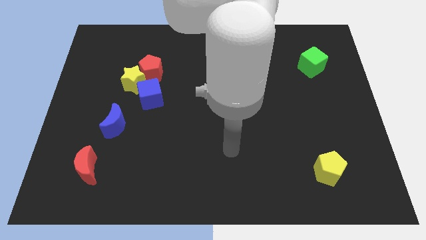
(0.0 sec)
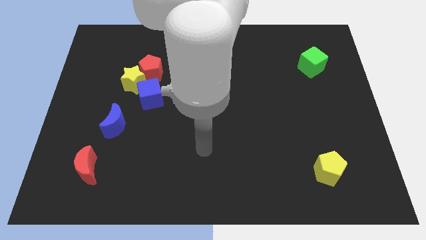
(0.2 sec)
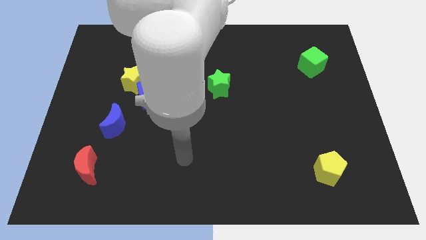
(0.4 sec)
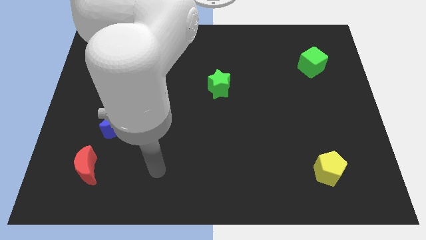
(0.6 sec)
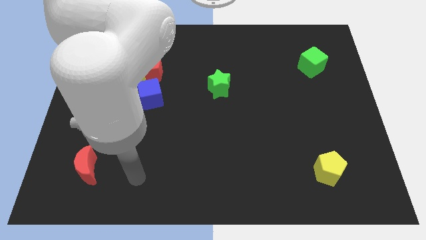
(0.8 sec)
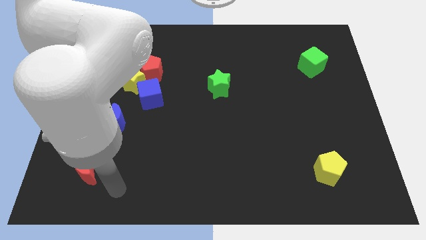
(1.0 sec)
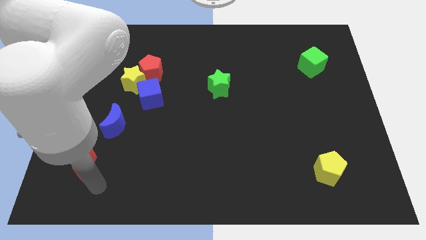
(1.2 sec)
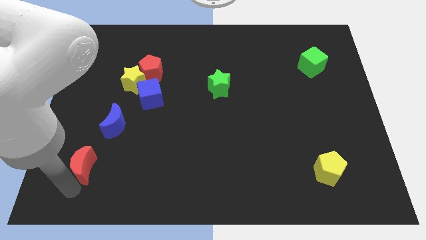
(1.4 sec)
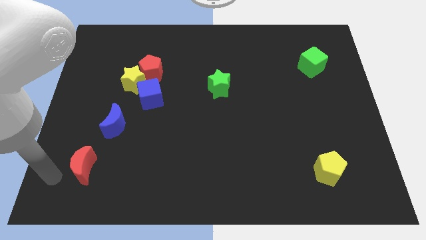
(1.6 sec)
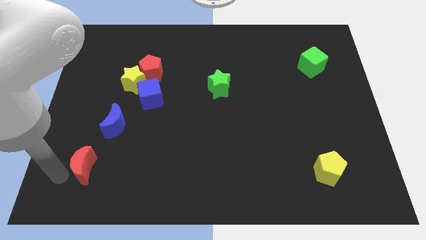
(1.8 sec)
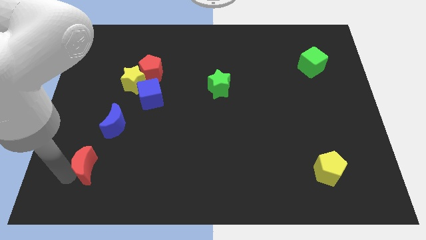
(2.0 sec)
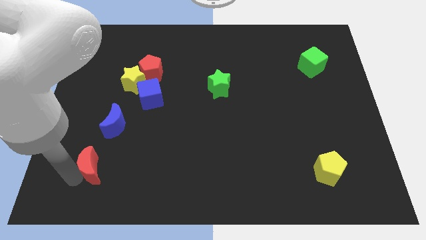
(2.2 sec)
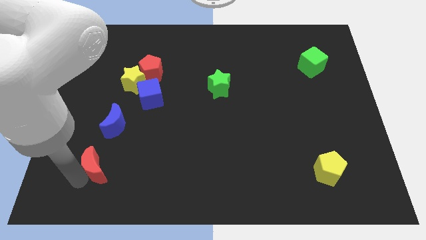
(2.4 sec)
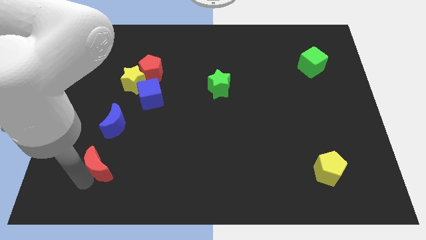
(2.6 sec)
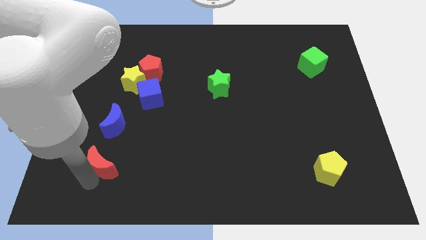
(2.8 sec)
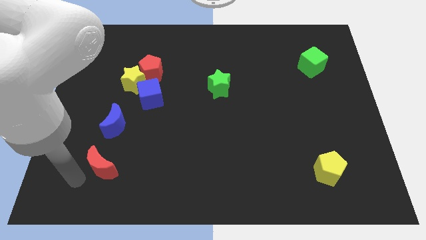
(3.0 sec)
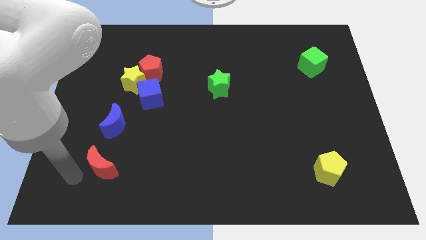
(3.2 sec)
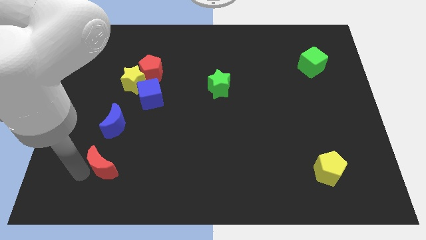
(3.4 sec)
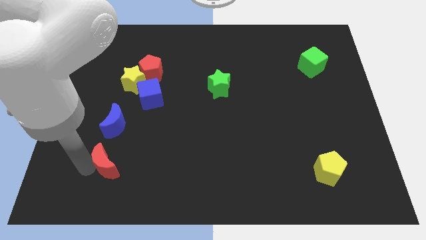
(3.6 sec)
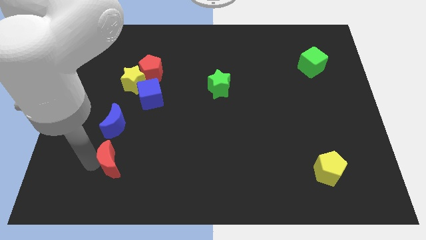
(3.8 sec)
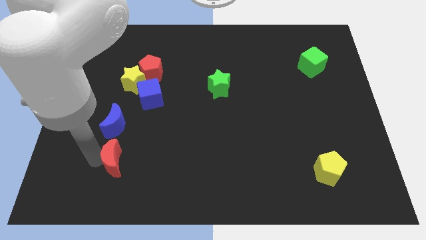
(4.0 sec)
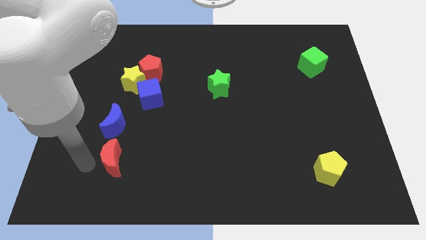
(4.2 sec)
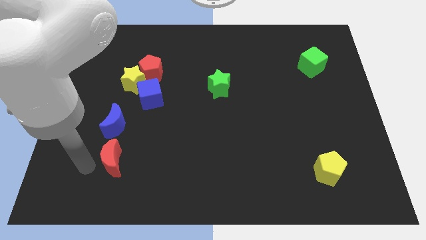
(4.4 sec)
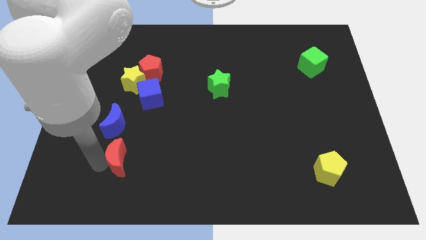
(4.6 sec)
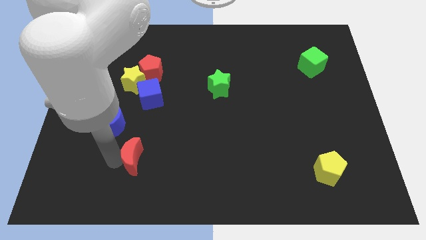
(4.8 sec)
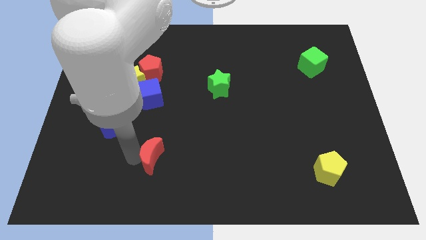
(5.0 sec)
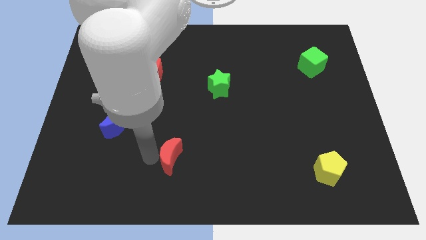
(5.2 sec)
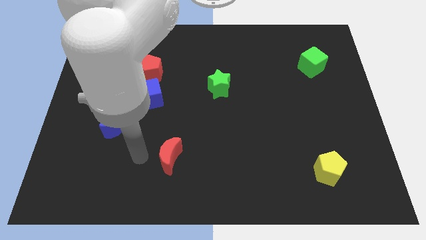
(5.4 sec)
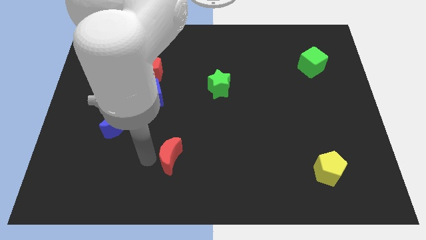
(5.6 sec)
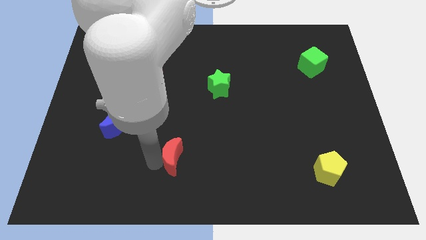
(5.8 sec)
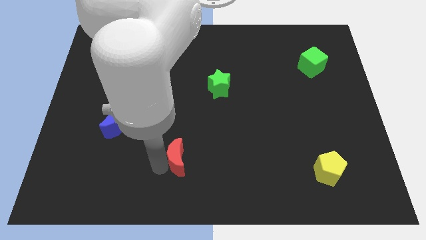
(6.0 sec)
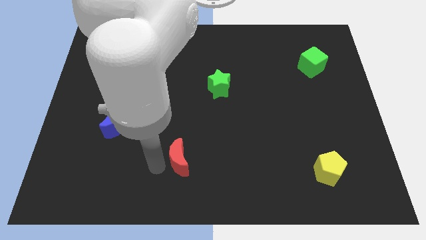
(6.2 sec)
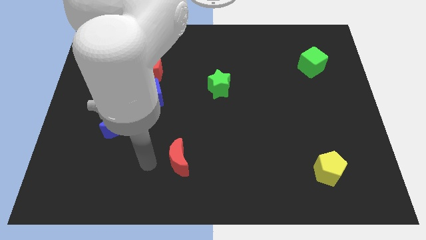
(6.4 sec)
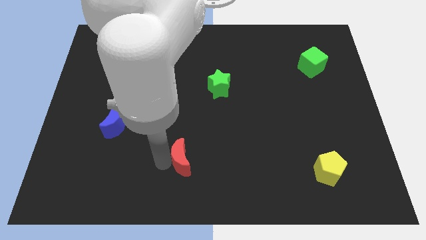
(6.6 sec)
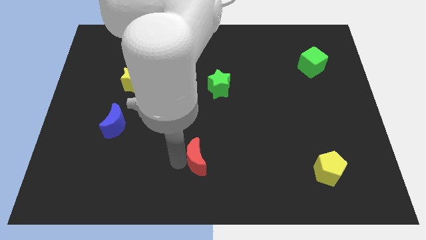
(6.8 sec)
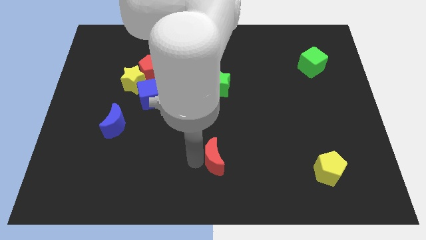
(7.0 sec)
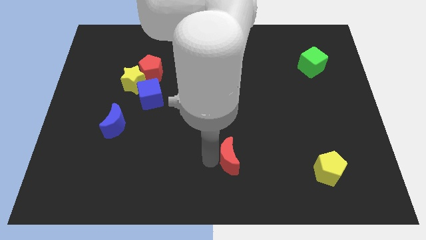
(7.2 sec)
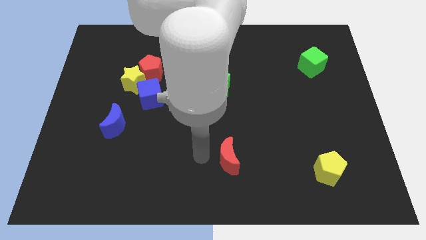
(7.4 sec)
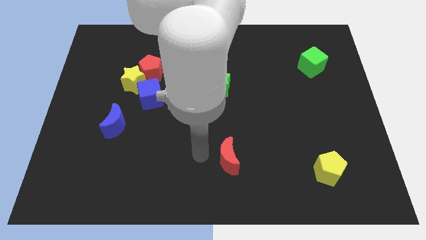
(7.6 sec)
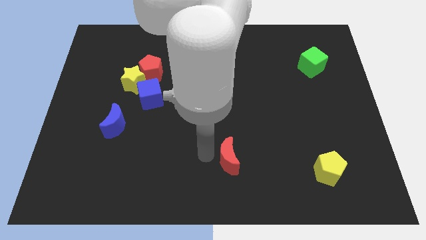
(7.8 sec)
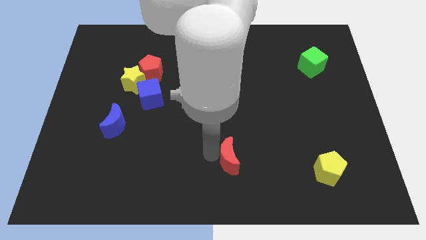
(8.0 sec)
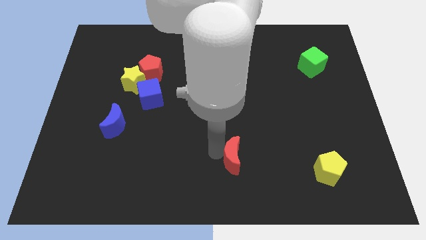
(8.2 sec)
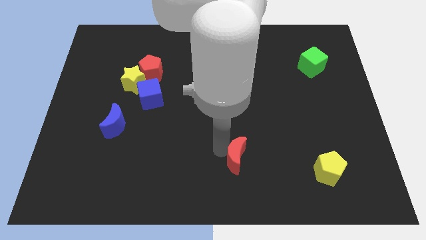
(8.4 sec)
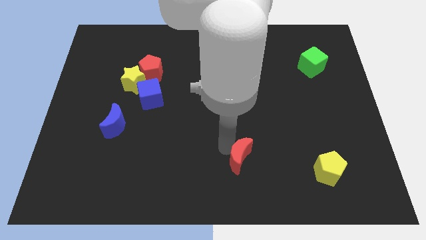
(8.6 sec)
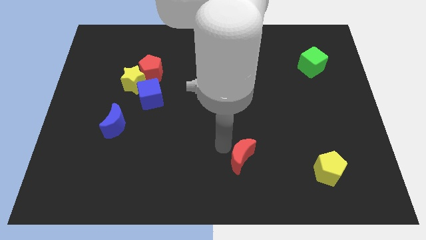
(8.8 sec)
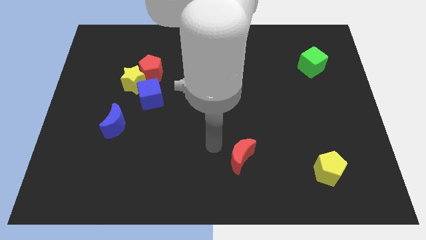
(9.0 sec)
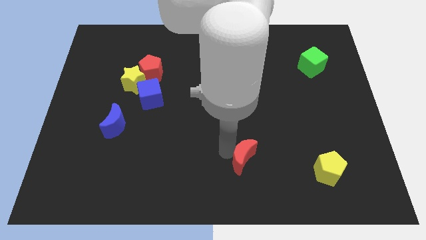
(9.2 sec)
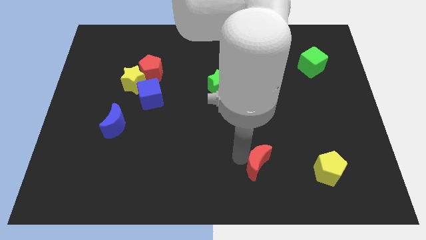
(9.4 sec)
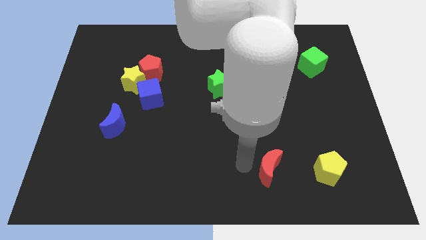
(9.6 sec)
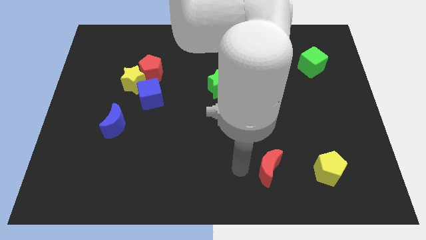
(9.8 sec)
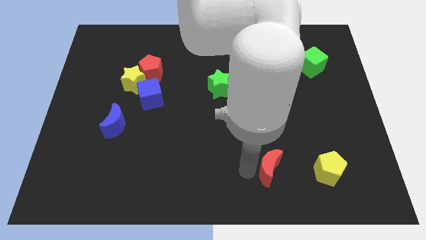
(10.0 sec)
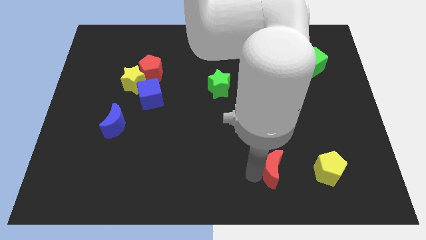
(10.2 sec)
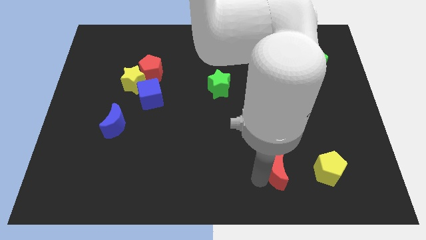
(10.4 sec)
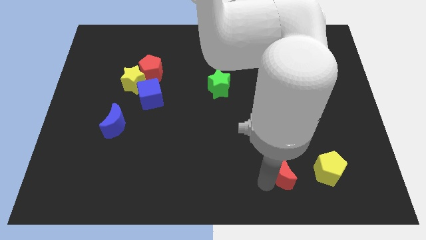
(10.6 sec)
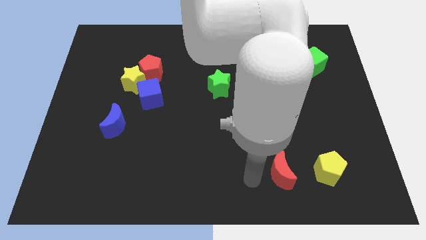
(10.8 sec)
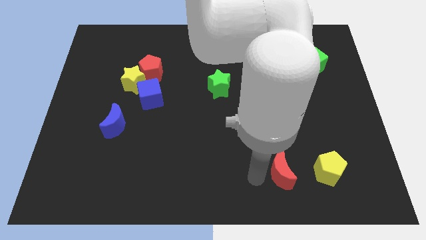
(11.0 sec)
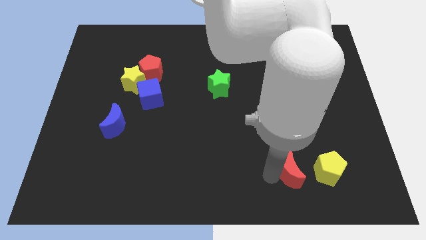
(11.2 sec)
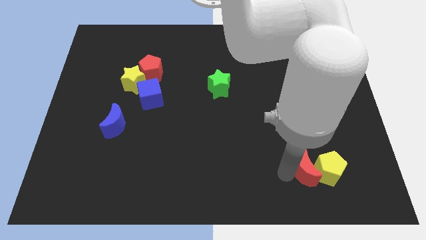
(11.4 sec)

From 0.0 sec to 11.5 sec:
slide the red moon to the yellow pentagon

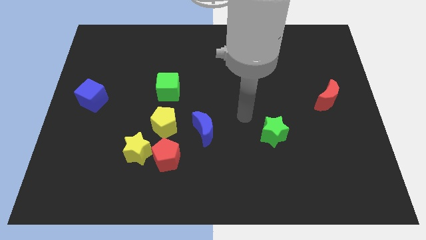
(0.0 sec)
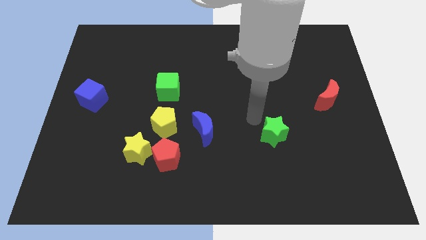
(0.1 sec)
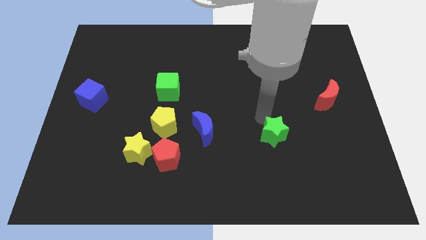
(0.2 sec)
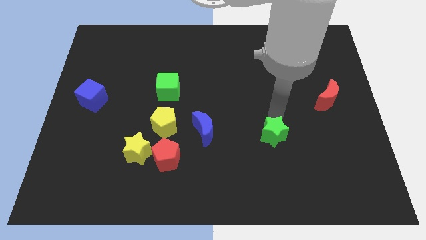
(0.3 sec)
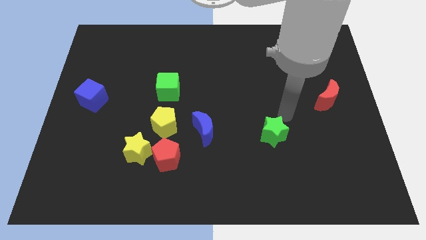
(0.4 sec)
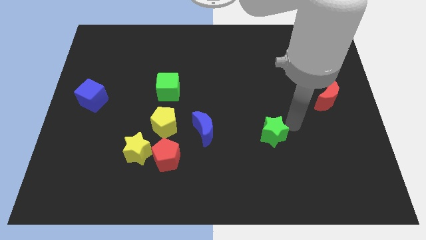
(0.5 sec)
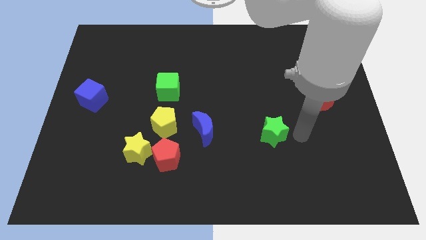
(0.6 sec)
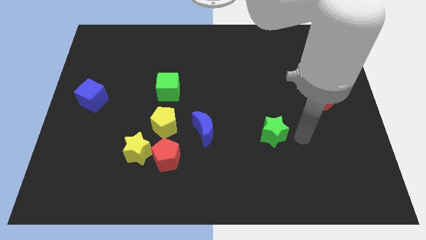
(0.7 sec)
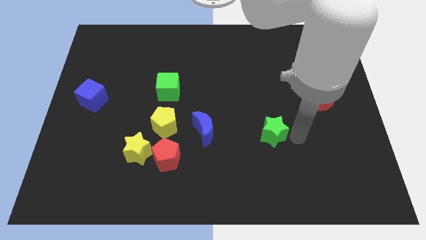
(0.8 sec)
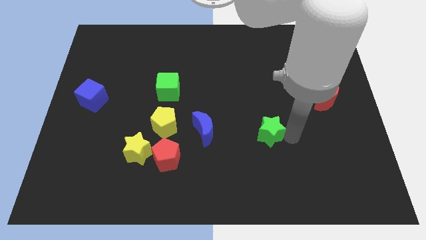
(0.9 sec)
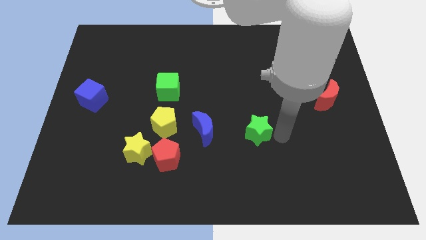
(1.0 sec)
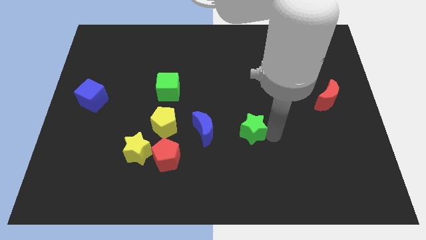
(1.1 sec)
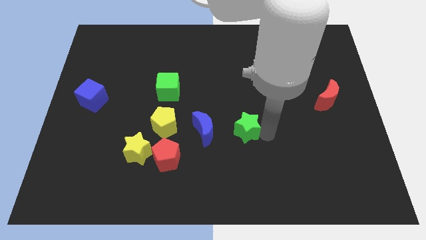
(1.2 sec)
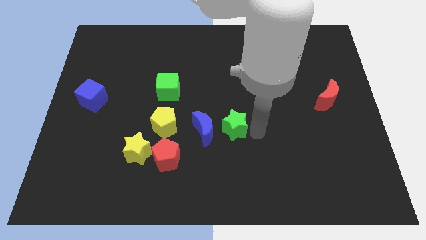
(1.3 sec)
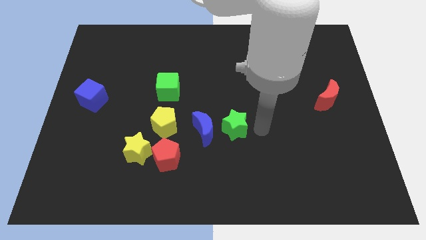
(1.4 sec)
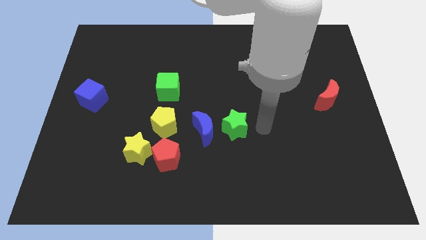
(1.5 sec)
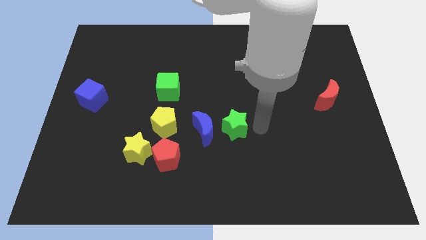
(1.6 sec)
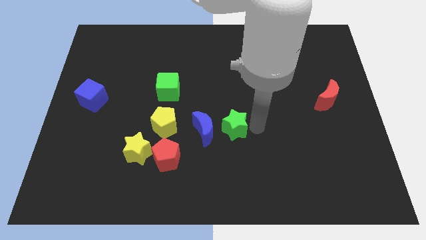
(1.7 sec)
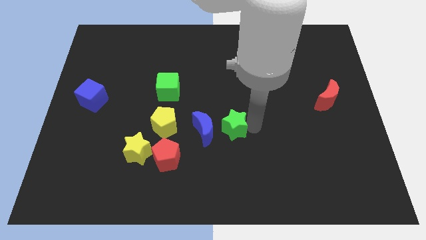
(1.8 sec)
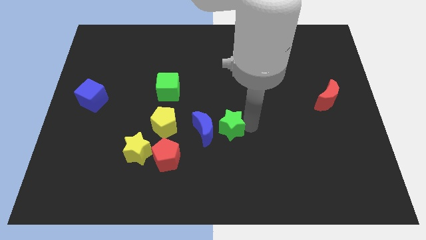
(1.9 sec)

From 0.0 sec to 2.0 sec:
slide the green star close to the blue moon
